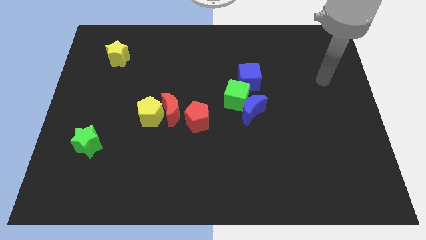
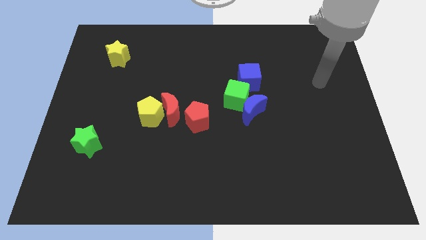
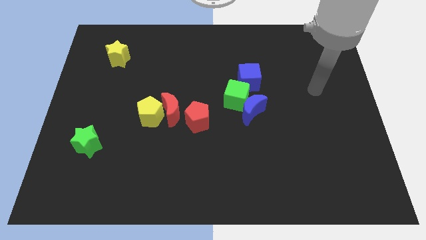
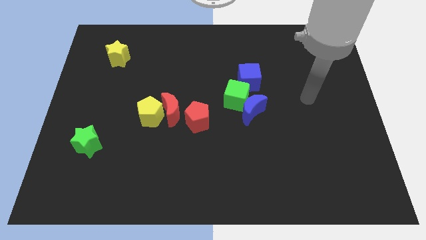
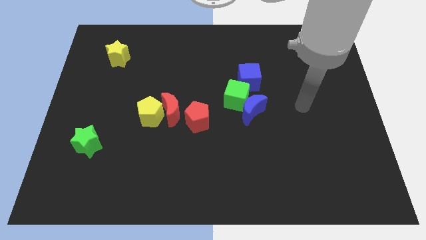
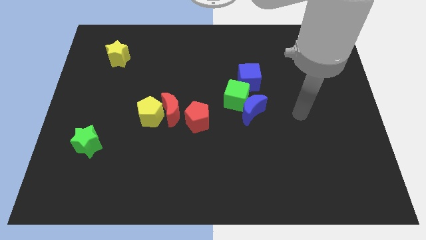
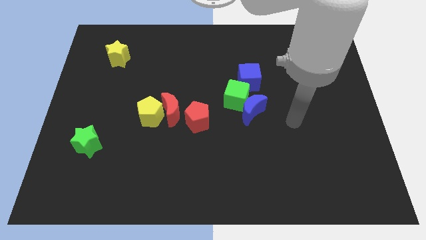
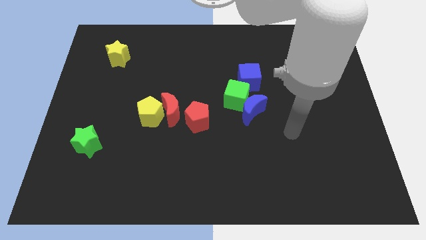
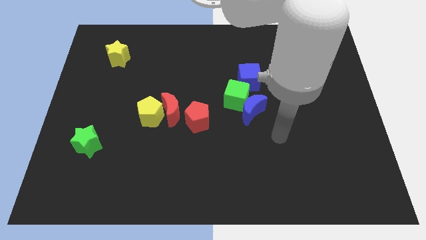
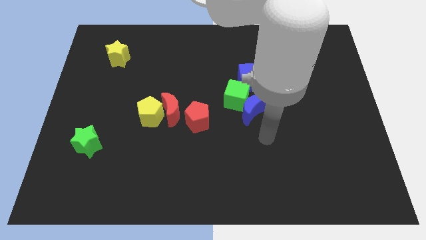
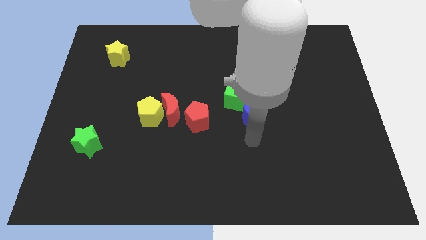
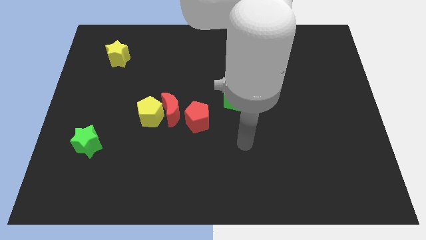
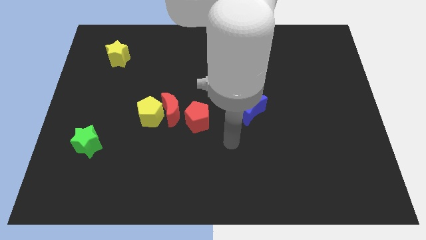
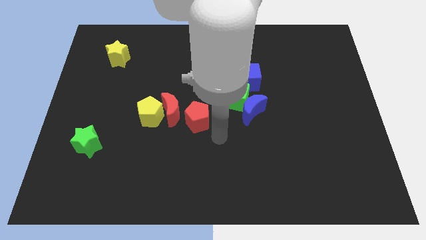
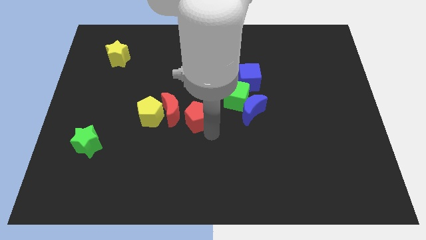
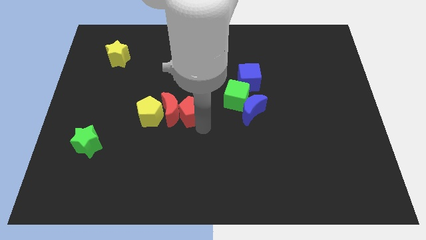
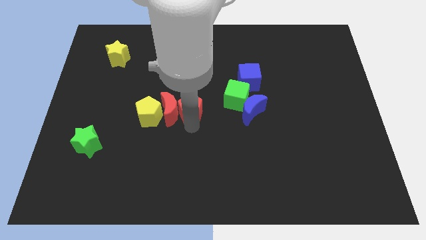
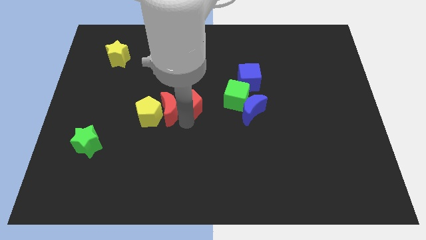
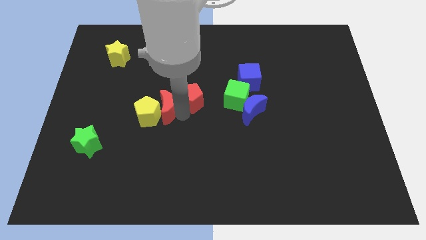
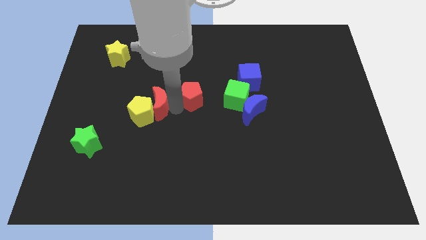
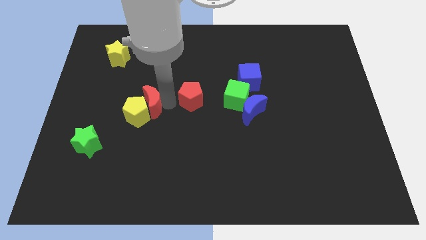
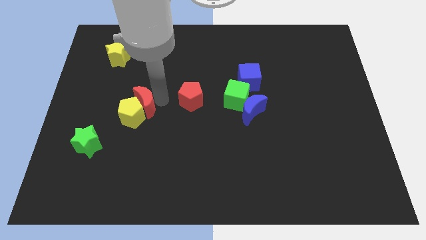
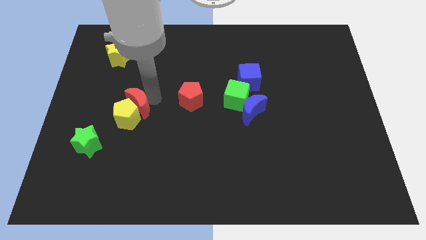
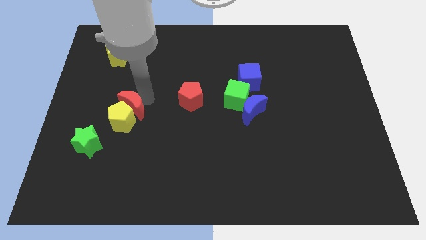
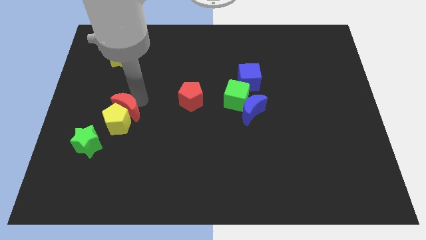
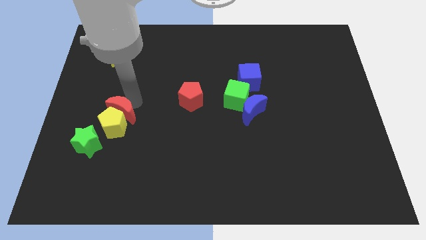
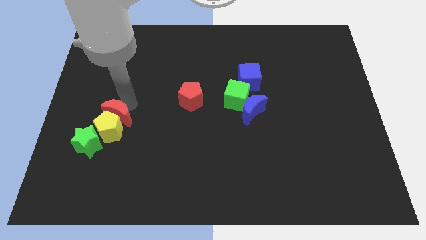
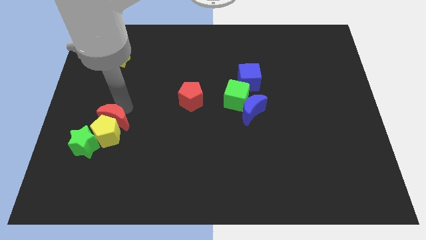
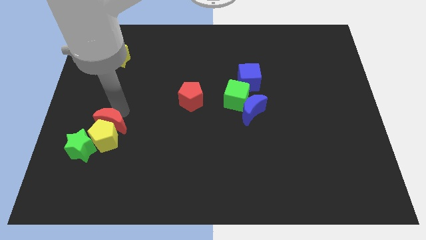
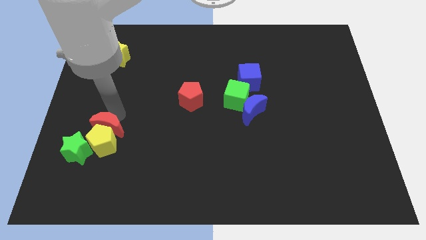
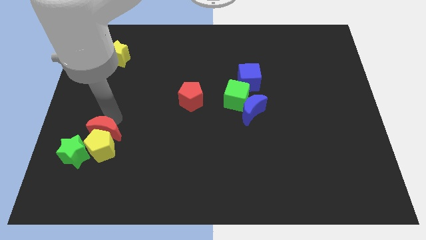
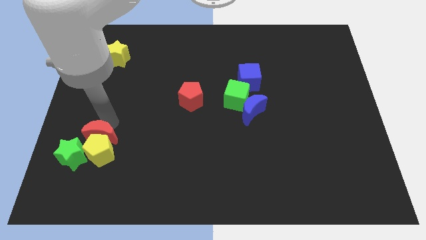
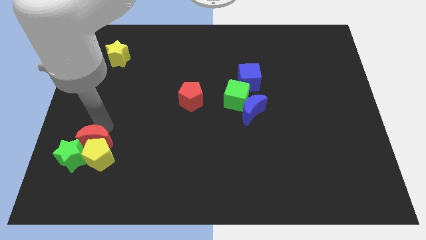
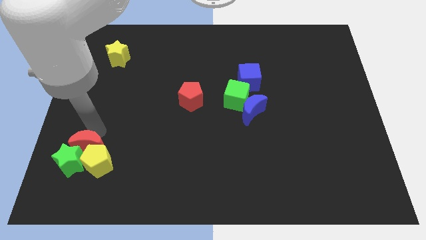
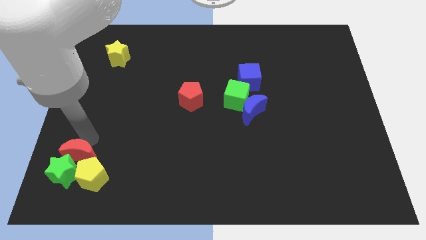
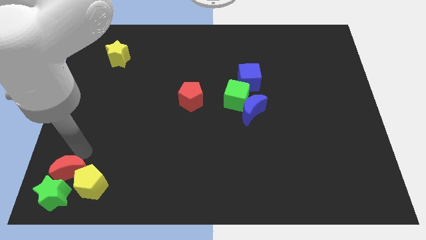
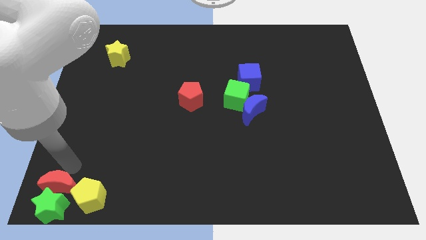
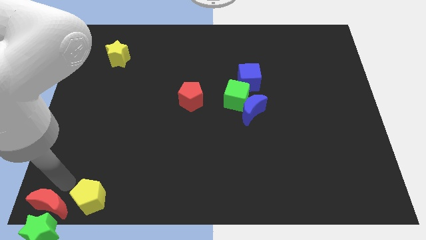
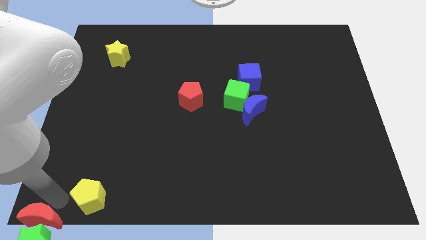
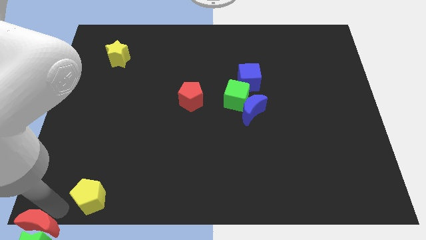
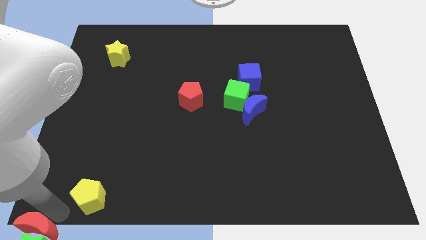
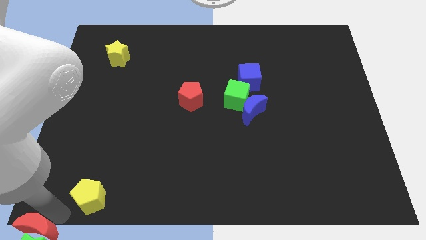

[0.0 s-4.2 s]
separate the yellow pentagon from the red moon

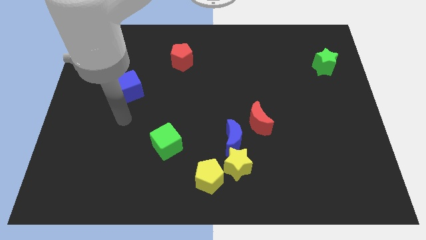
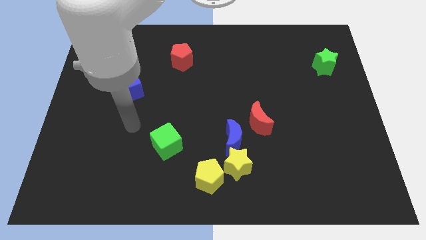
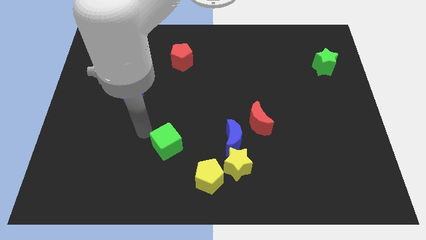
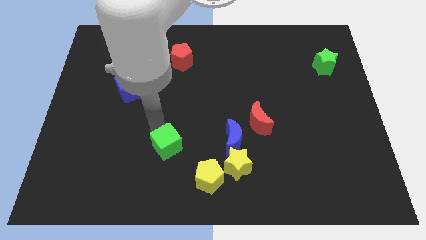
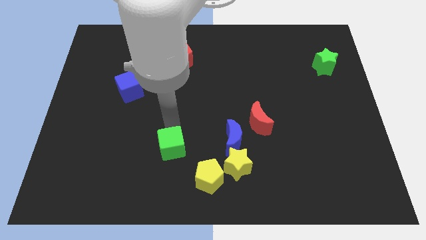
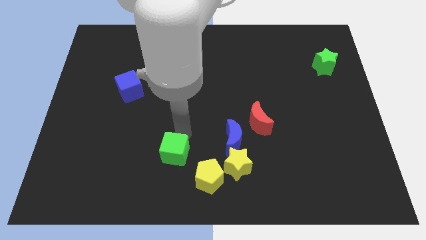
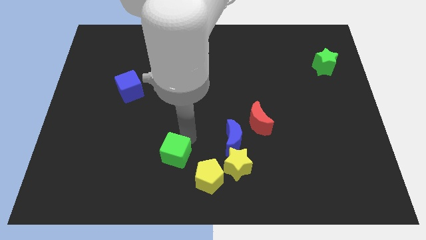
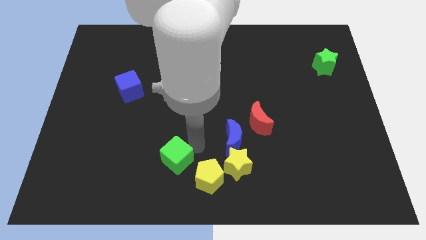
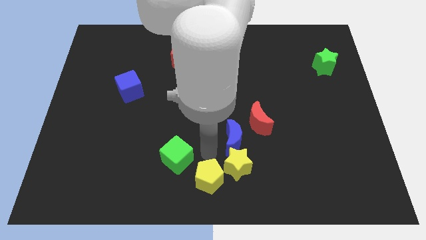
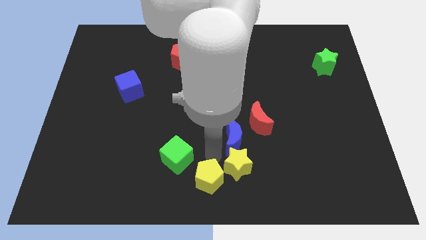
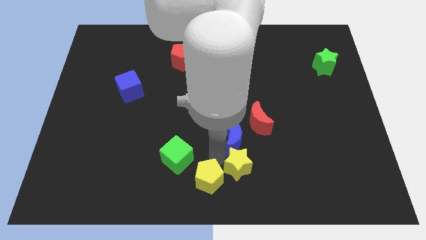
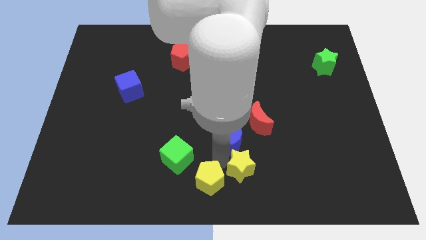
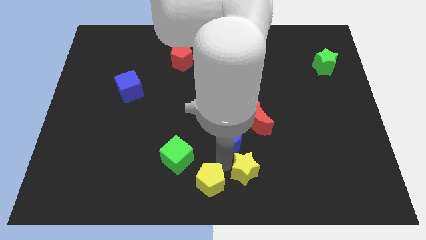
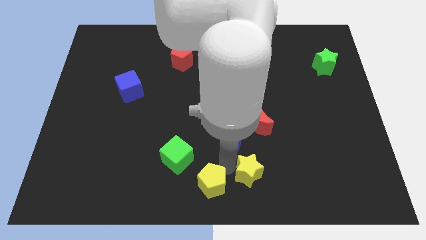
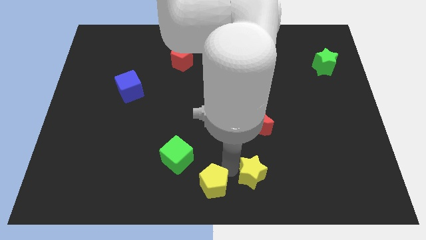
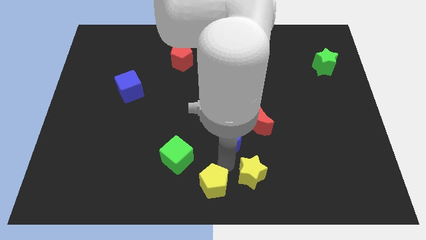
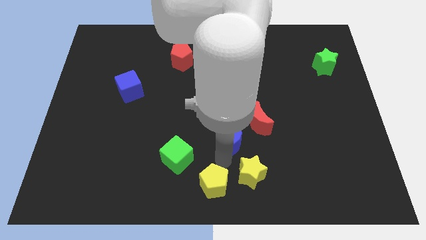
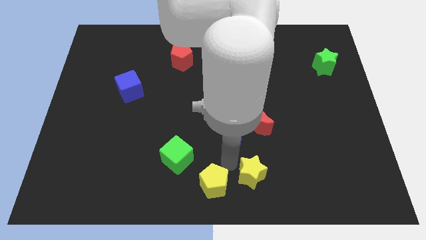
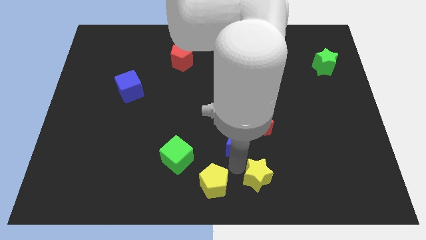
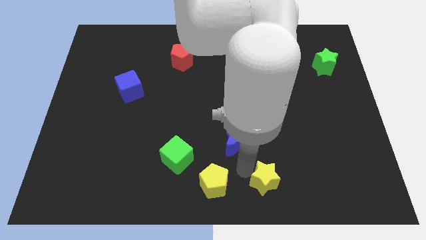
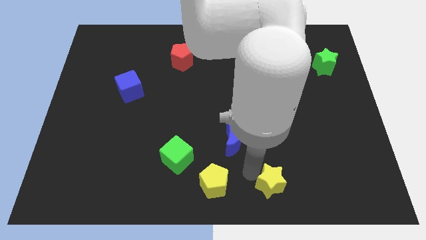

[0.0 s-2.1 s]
move the yellow star away from the blue moon and yellow pentagon

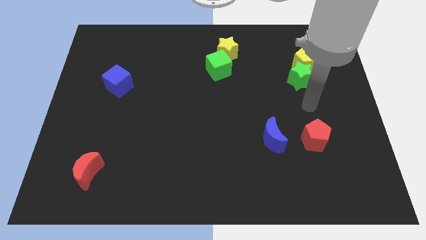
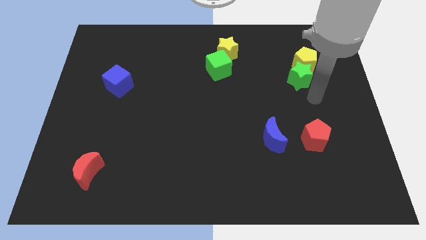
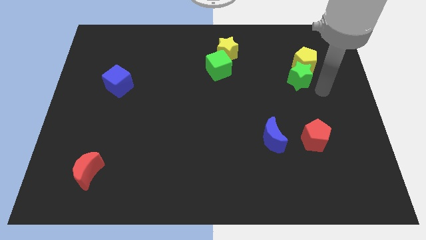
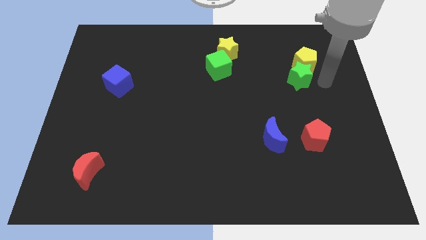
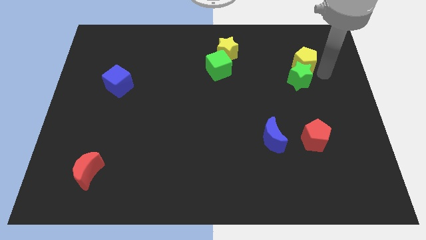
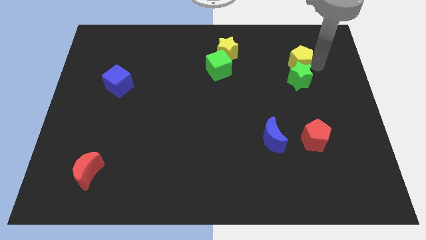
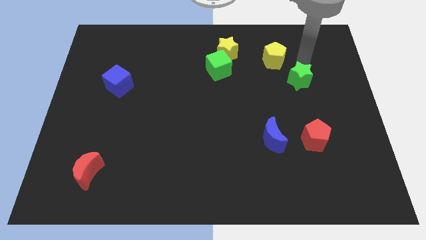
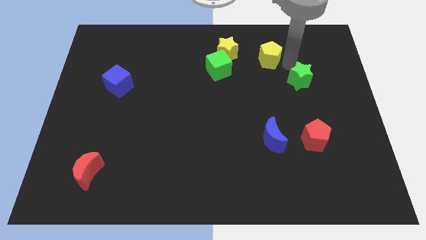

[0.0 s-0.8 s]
separate the green star from the yellow pentagon

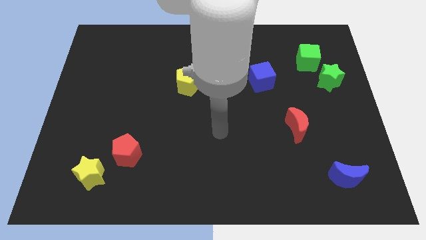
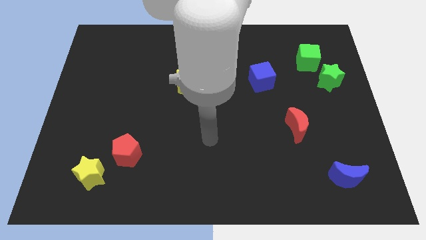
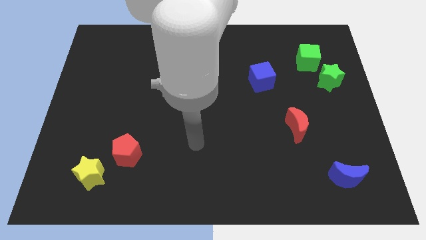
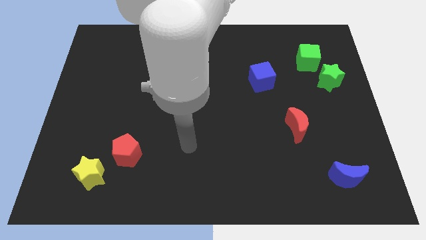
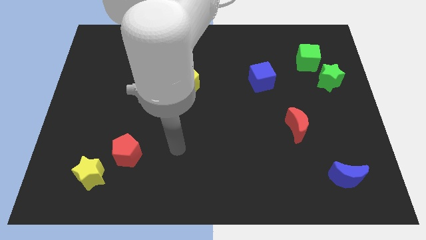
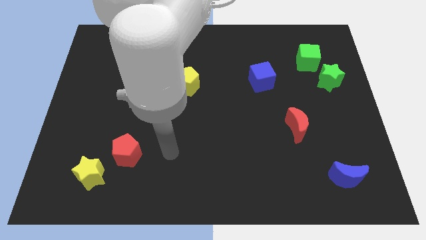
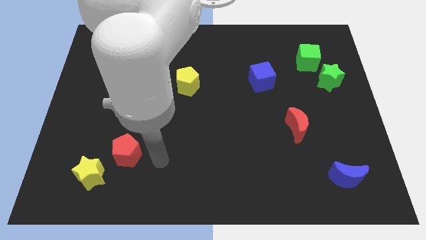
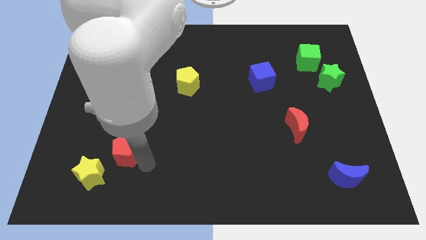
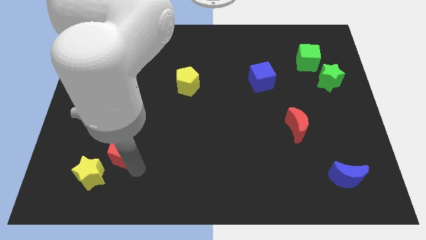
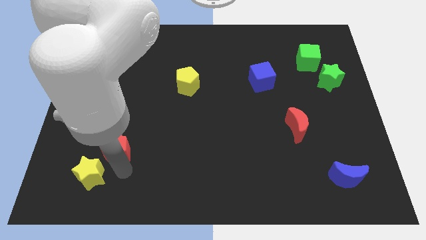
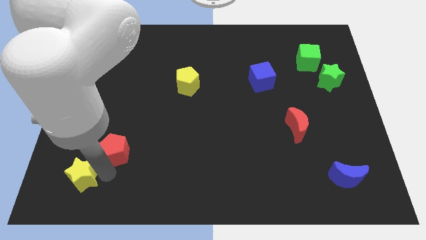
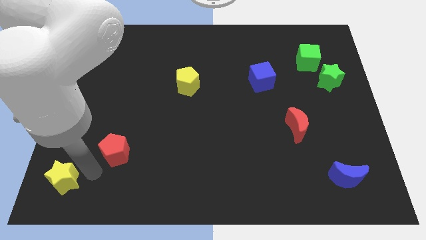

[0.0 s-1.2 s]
pull the red pentagon apart from the yellow star

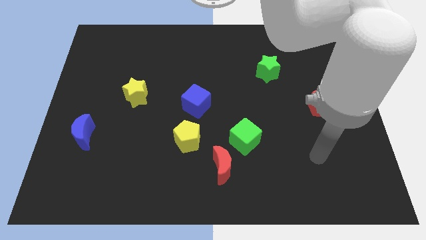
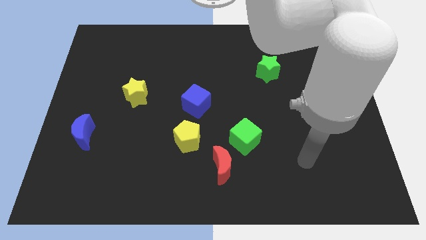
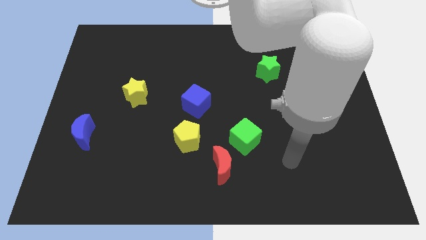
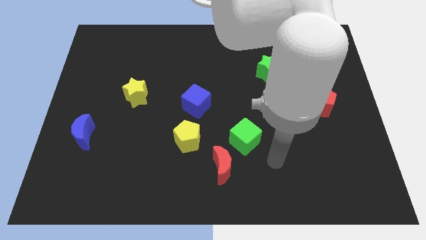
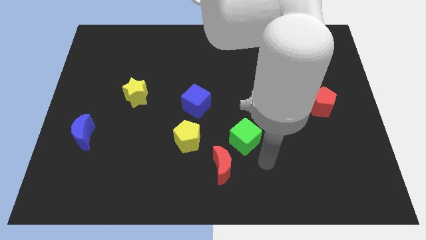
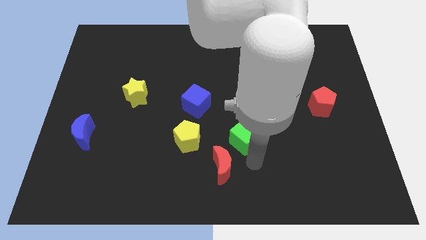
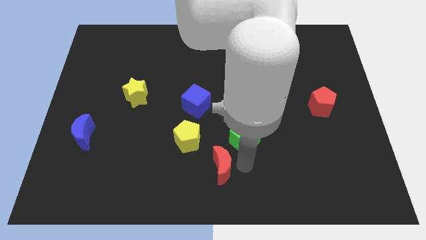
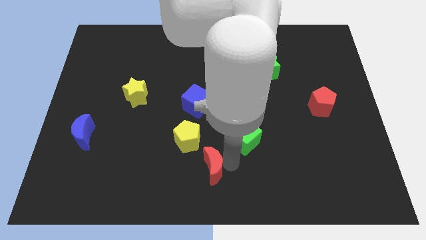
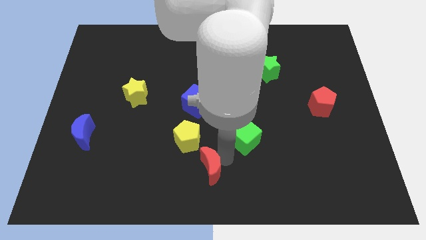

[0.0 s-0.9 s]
separate the green cube from the red moon
